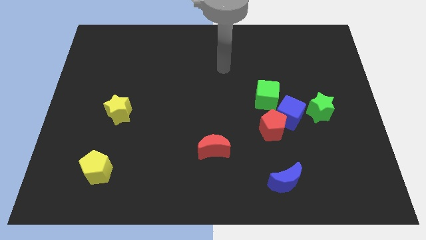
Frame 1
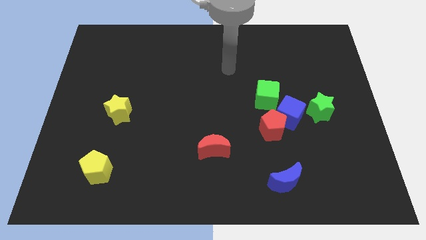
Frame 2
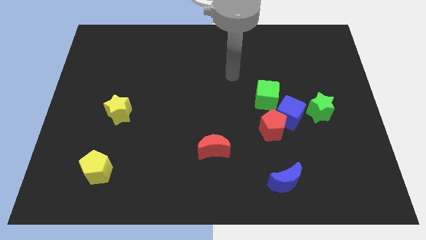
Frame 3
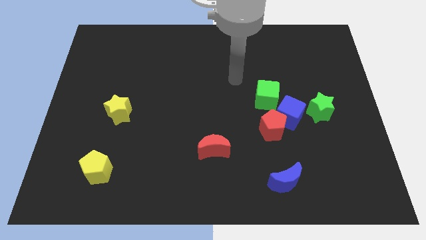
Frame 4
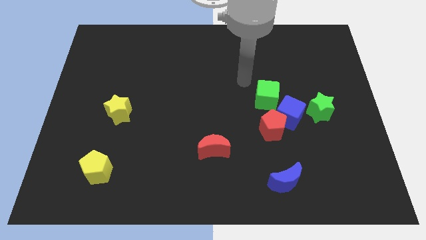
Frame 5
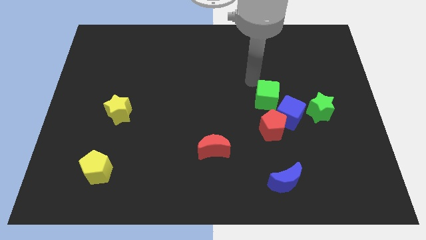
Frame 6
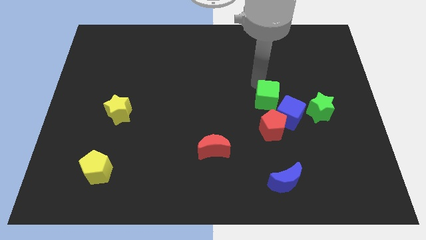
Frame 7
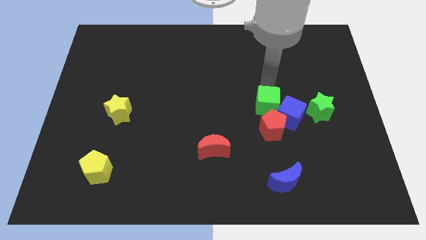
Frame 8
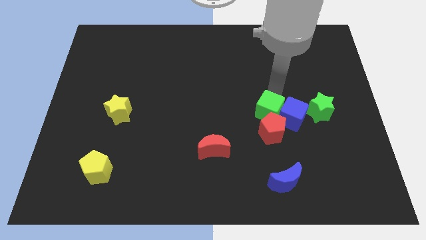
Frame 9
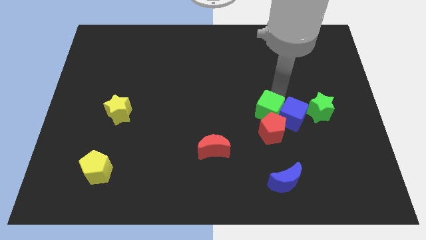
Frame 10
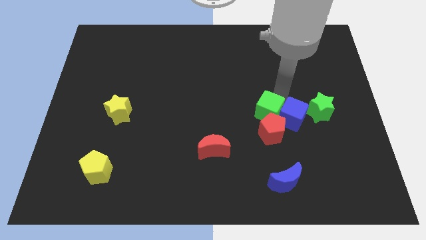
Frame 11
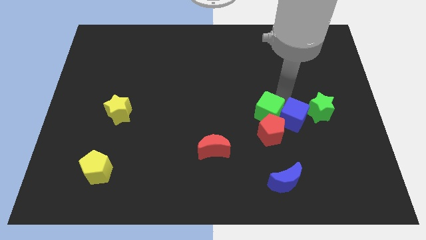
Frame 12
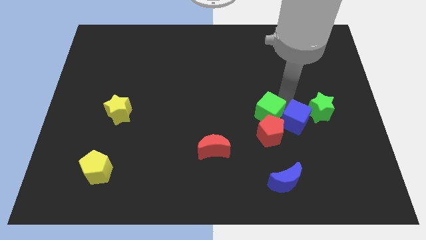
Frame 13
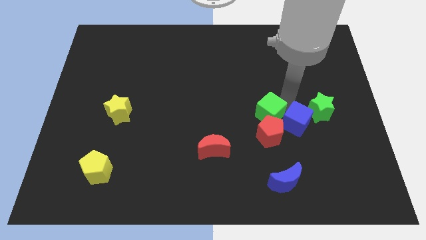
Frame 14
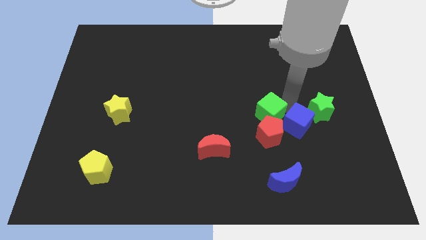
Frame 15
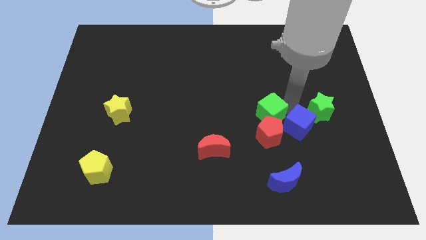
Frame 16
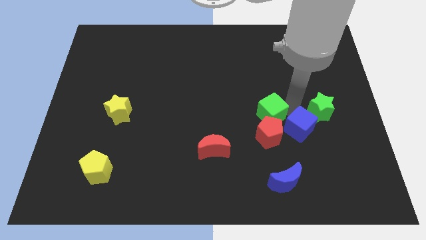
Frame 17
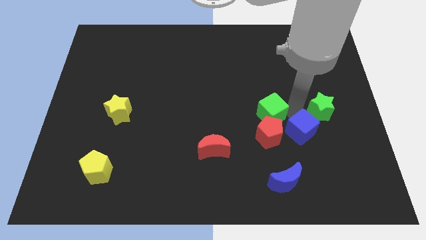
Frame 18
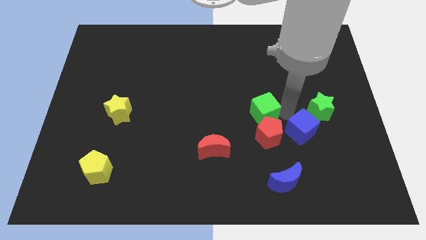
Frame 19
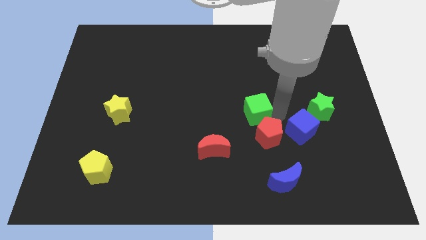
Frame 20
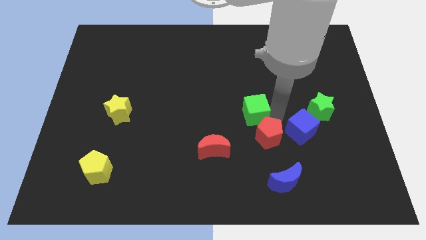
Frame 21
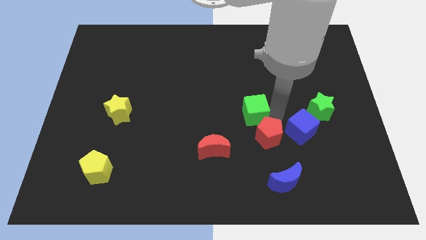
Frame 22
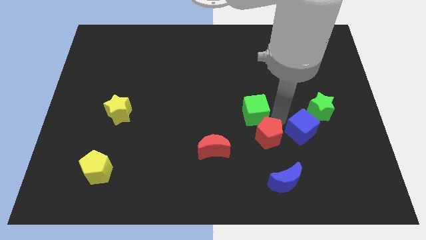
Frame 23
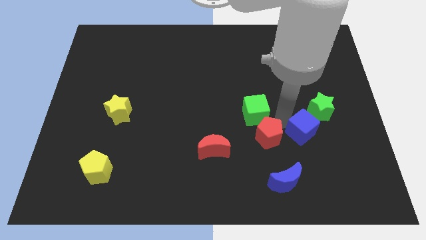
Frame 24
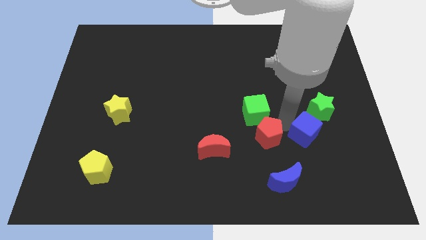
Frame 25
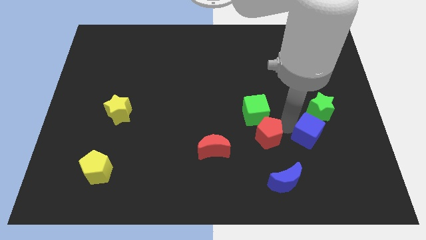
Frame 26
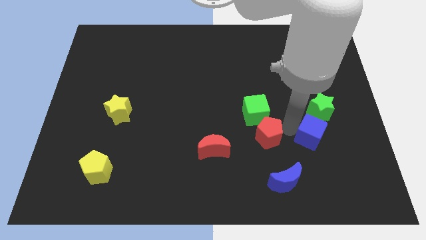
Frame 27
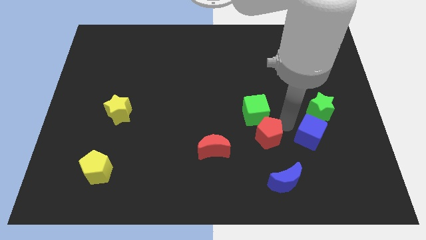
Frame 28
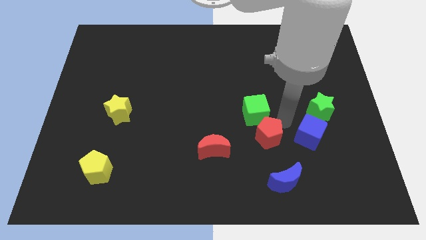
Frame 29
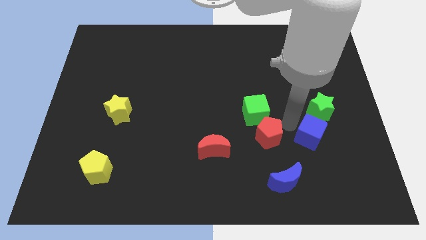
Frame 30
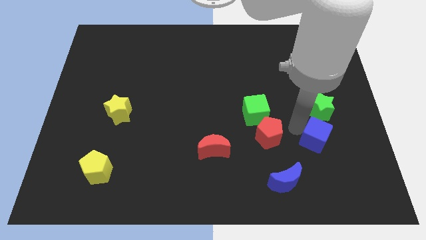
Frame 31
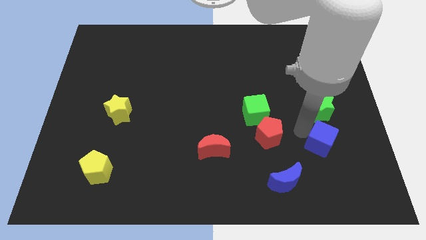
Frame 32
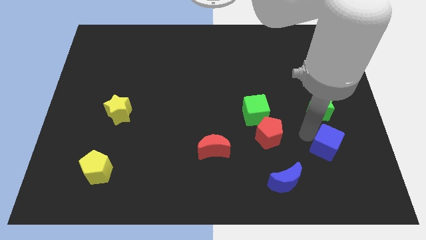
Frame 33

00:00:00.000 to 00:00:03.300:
separate the blue cube from the group of blocks

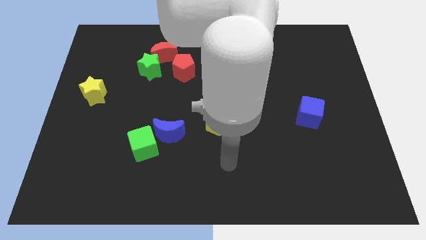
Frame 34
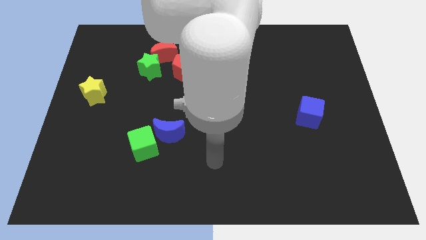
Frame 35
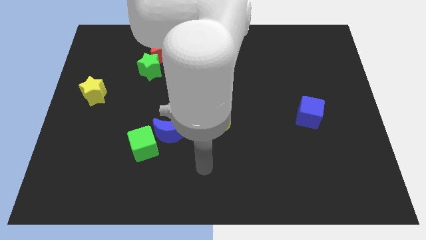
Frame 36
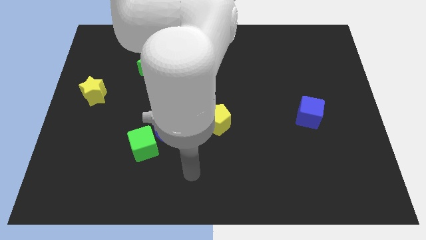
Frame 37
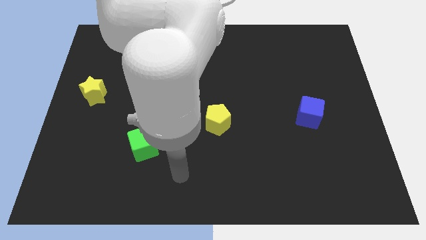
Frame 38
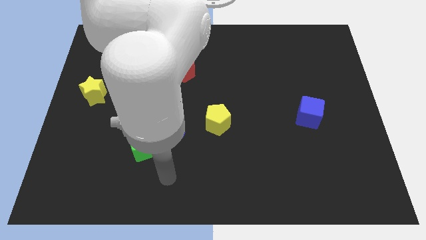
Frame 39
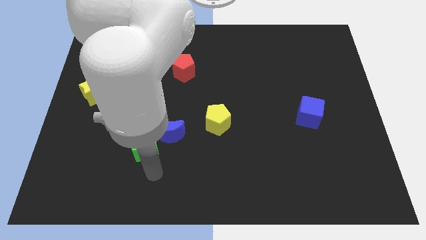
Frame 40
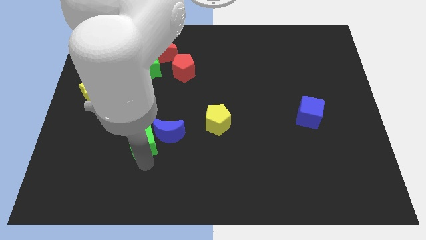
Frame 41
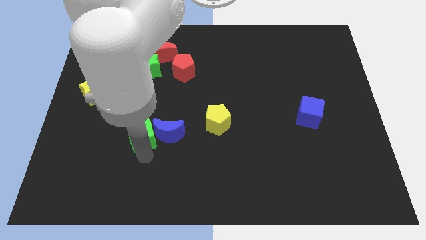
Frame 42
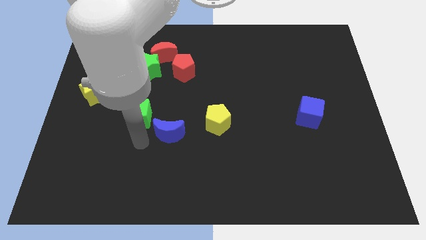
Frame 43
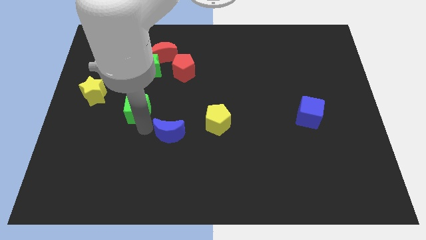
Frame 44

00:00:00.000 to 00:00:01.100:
pull the blue moon apart from the green cube

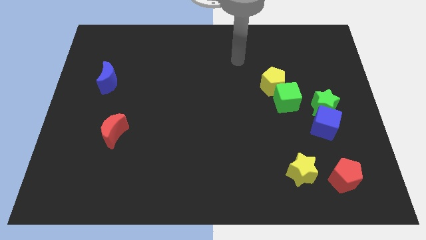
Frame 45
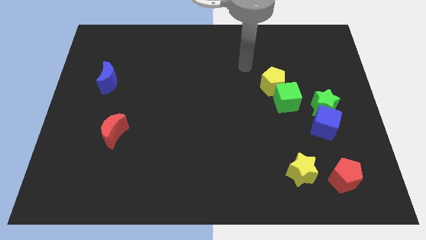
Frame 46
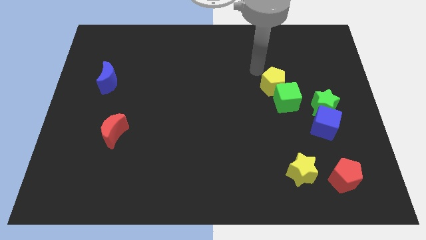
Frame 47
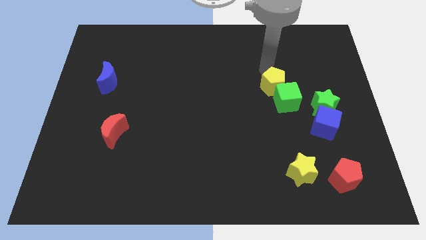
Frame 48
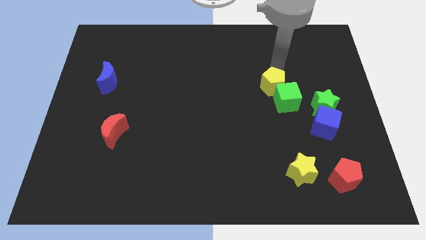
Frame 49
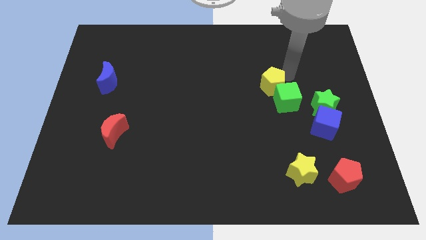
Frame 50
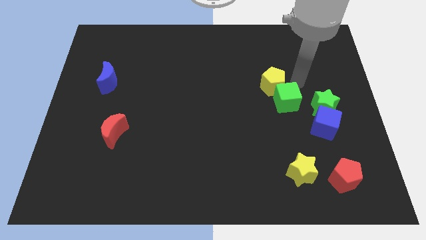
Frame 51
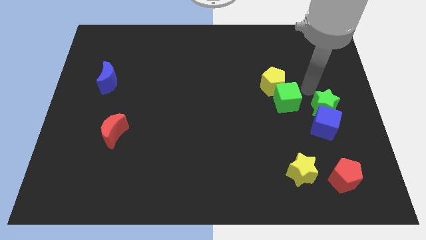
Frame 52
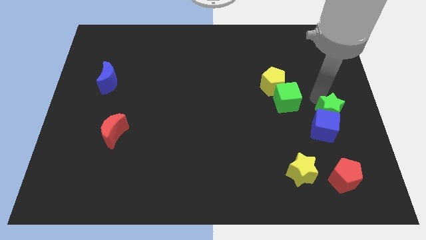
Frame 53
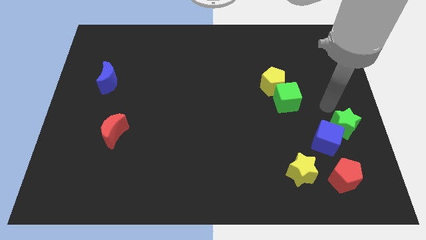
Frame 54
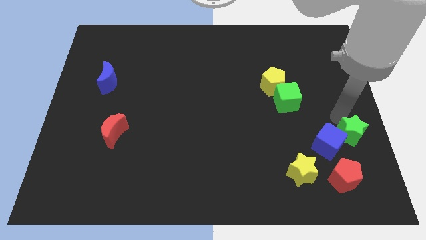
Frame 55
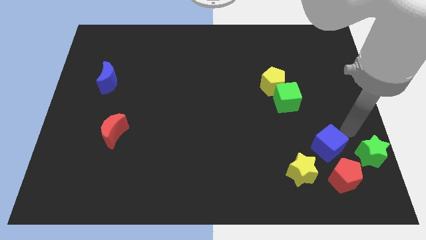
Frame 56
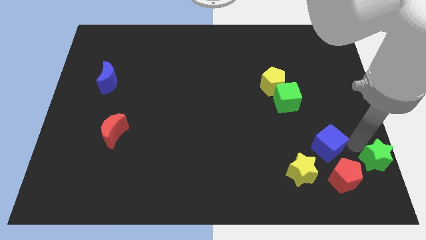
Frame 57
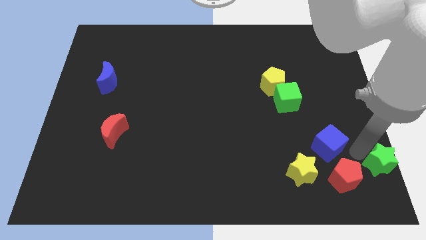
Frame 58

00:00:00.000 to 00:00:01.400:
separate the blue cube from the green star

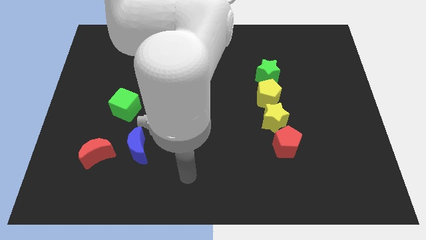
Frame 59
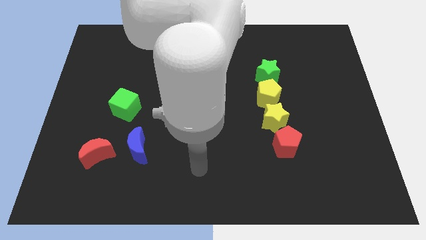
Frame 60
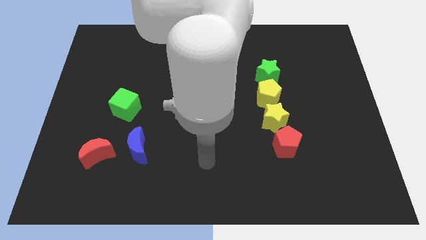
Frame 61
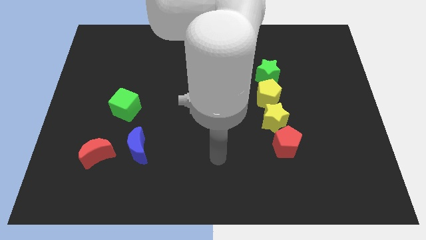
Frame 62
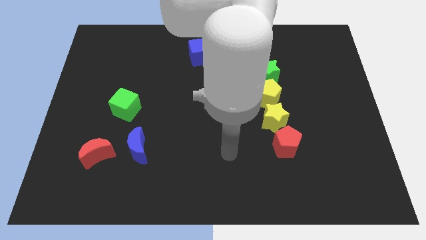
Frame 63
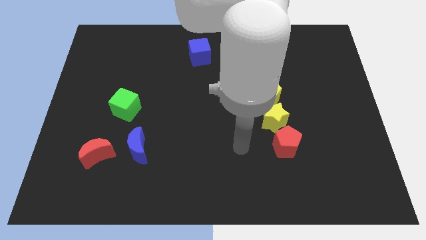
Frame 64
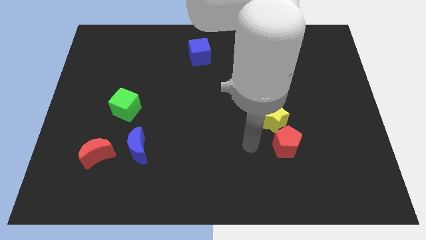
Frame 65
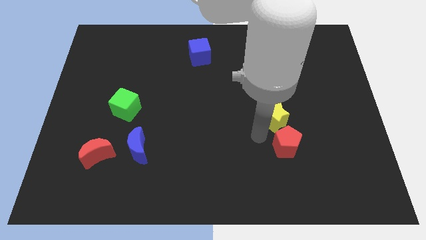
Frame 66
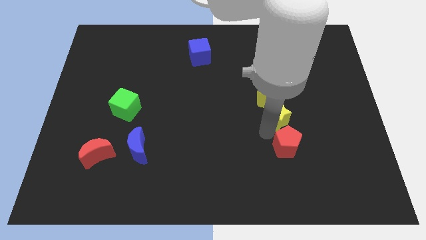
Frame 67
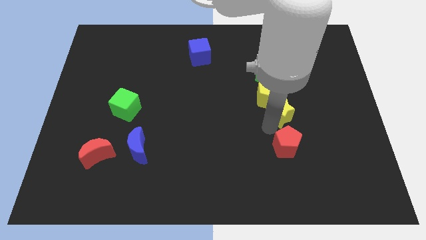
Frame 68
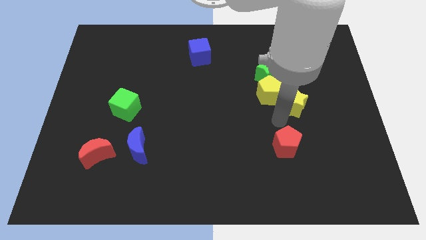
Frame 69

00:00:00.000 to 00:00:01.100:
pull the red pentagon apart from the yellow star

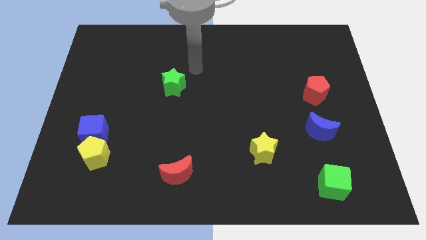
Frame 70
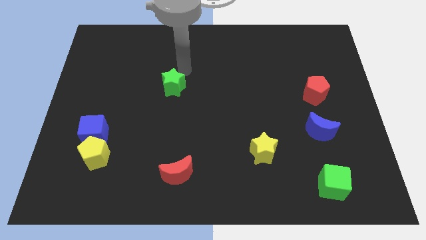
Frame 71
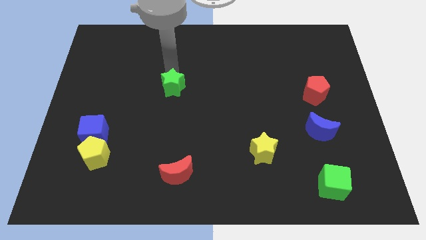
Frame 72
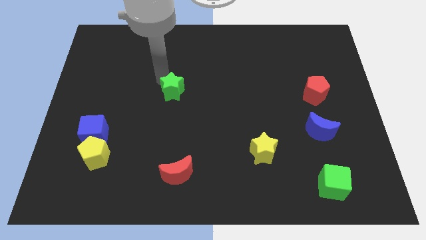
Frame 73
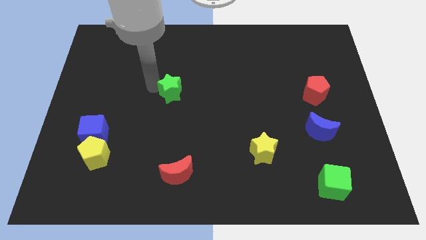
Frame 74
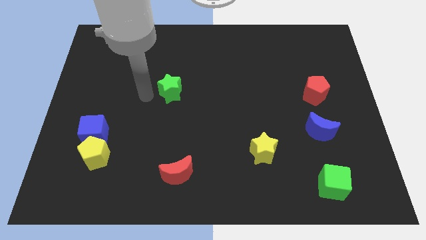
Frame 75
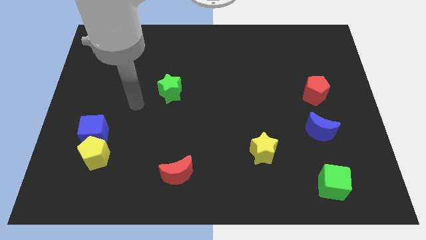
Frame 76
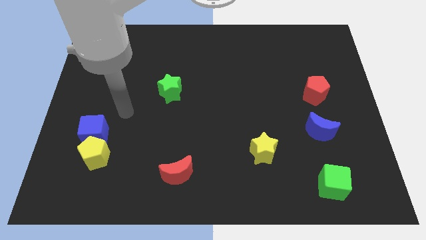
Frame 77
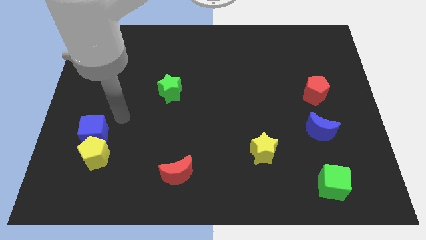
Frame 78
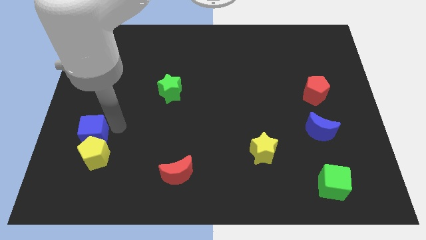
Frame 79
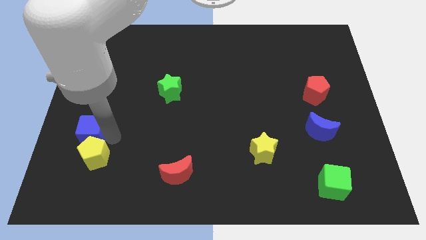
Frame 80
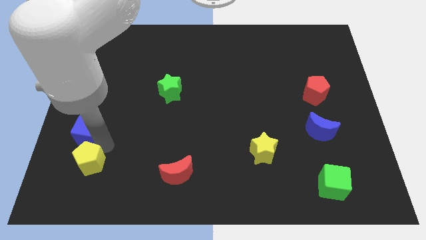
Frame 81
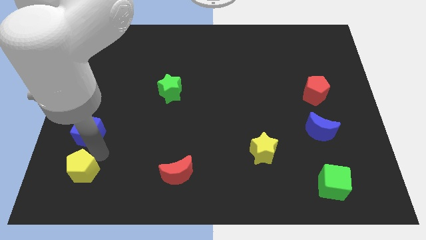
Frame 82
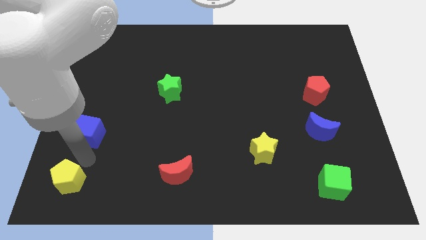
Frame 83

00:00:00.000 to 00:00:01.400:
separate the blue cube from the yellow pentagon

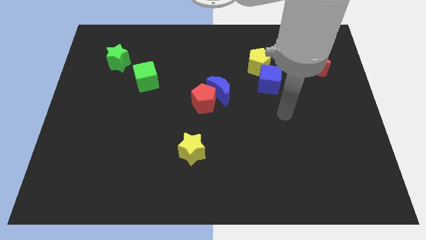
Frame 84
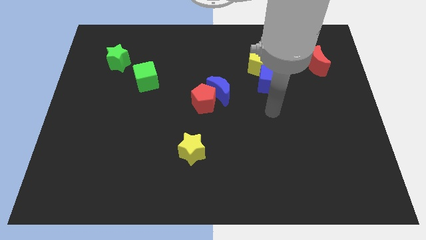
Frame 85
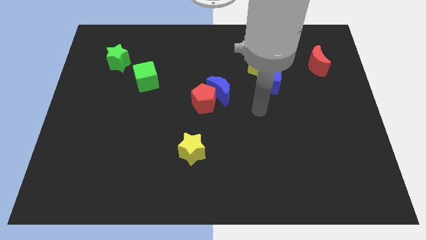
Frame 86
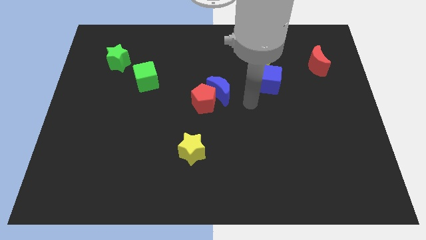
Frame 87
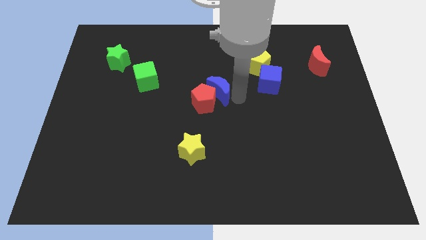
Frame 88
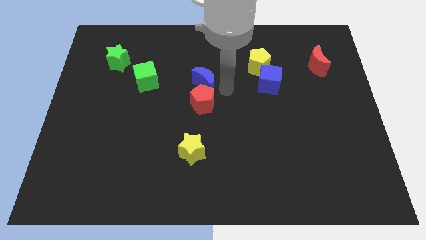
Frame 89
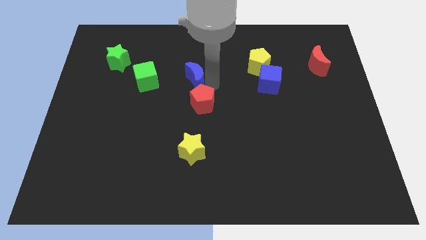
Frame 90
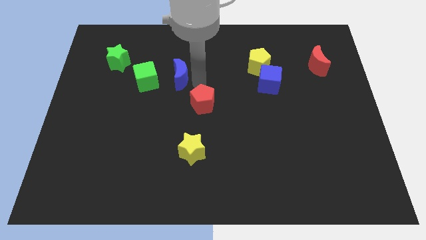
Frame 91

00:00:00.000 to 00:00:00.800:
move the red pentagon away from the blue moon

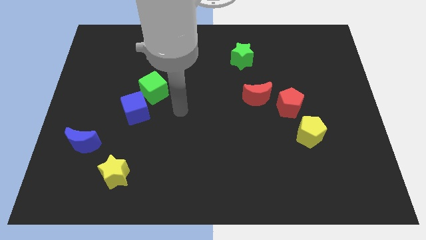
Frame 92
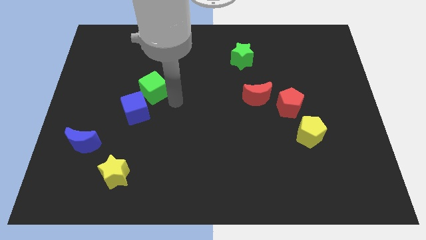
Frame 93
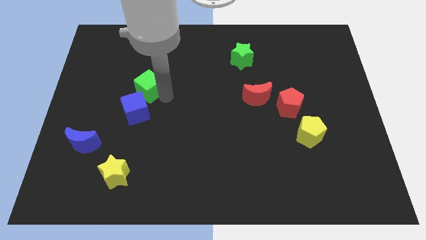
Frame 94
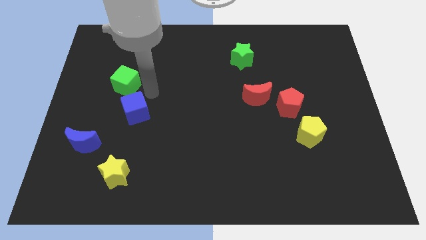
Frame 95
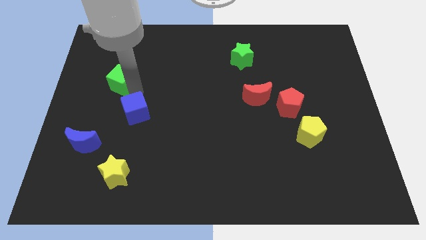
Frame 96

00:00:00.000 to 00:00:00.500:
move the blue cube away from the green cube
